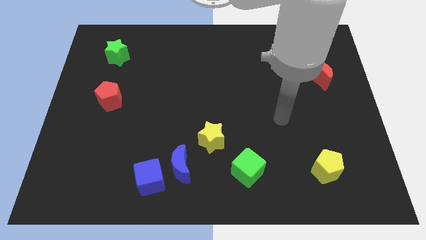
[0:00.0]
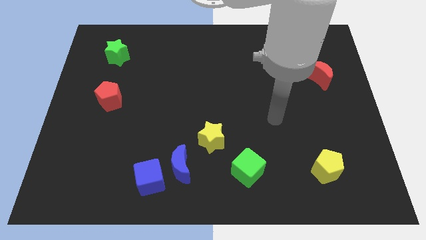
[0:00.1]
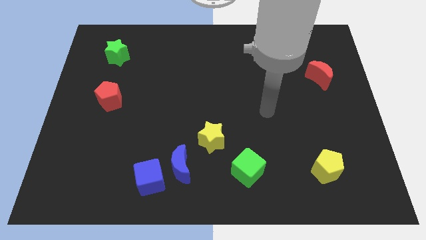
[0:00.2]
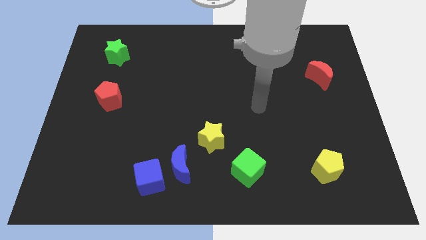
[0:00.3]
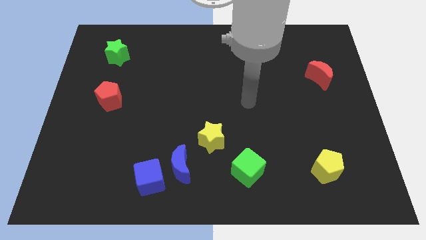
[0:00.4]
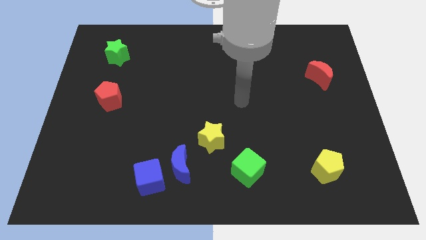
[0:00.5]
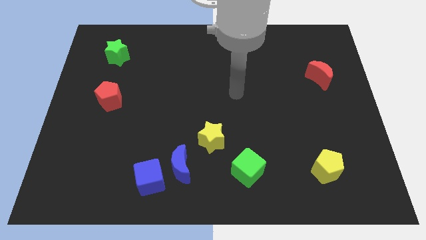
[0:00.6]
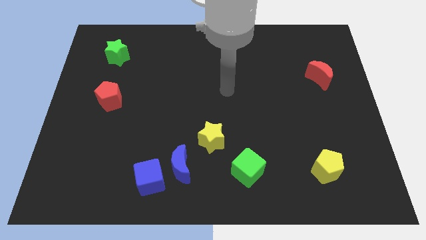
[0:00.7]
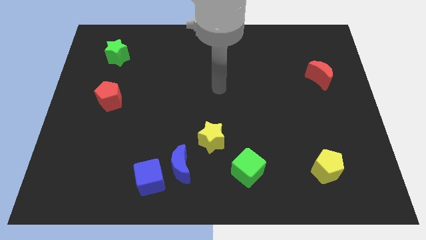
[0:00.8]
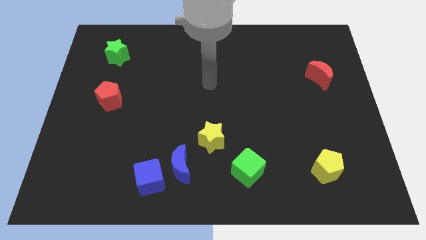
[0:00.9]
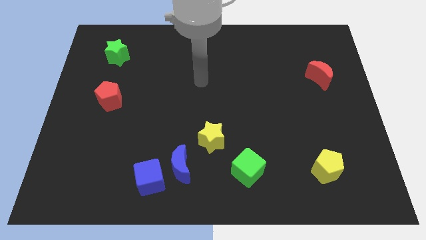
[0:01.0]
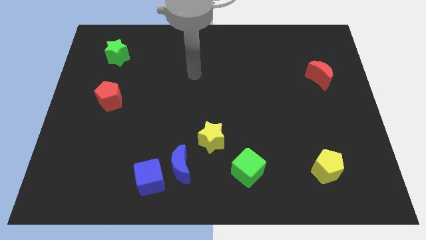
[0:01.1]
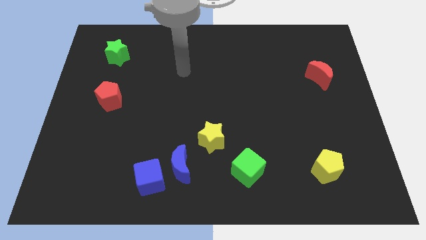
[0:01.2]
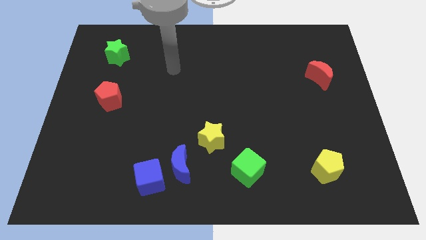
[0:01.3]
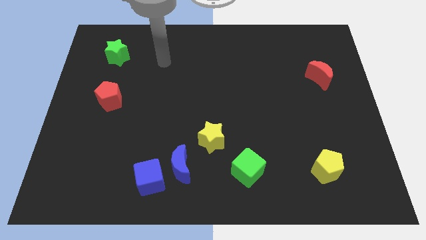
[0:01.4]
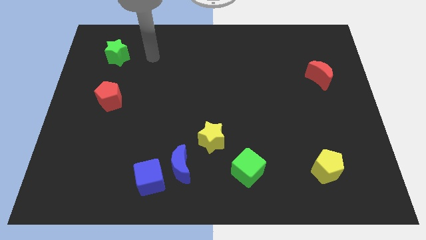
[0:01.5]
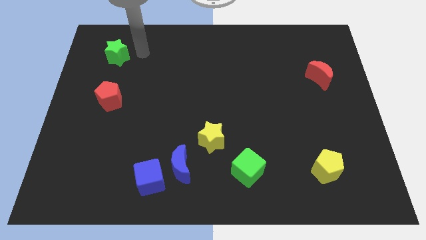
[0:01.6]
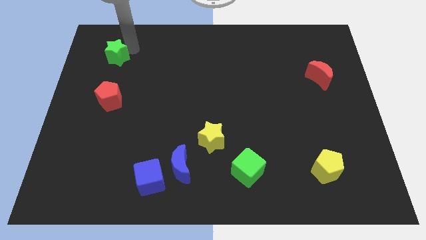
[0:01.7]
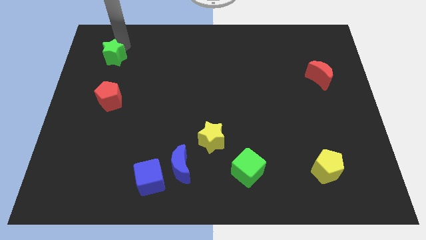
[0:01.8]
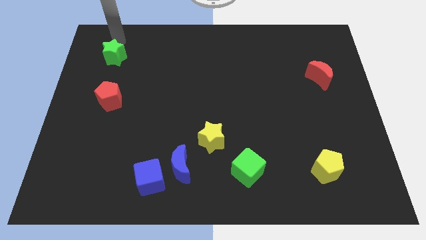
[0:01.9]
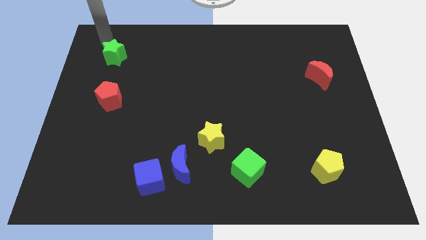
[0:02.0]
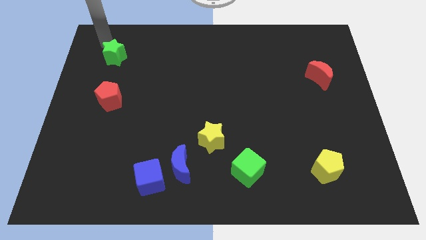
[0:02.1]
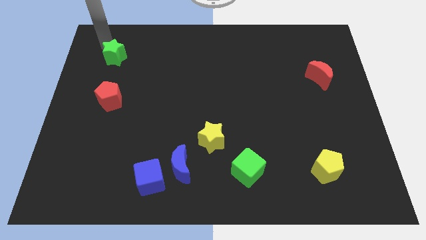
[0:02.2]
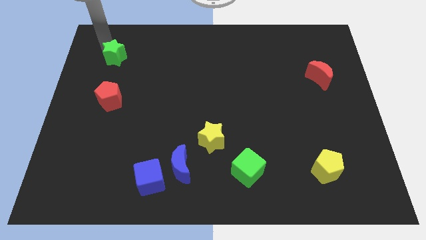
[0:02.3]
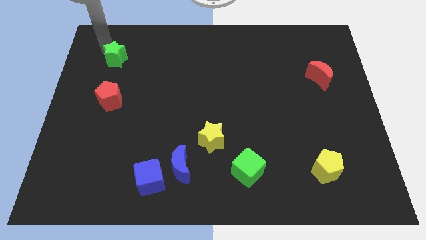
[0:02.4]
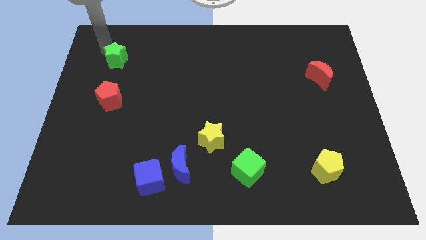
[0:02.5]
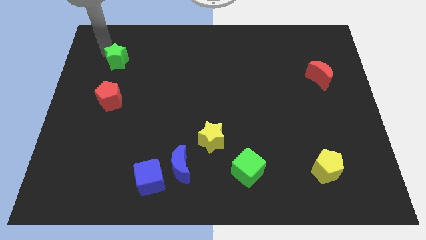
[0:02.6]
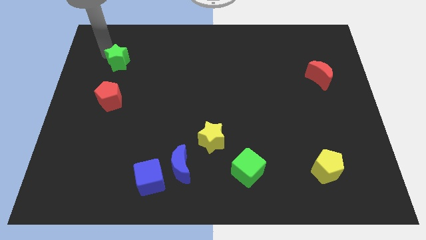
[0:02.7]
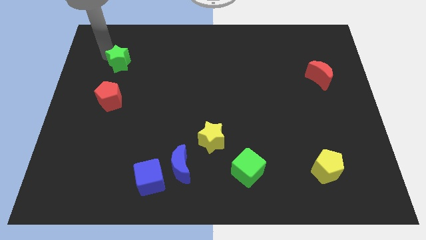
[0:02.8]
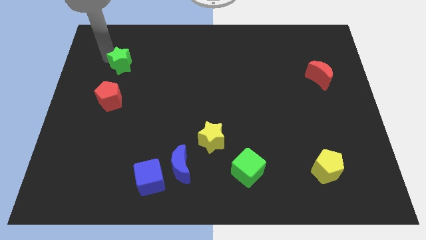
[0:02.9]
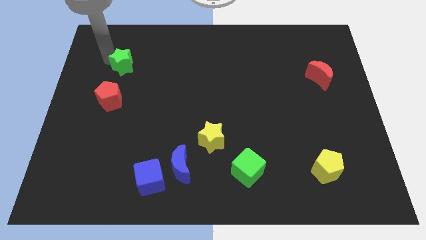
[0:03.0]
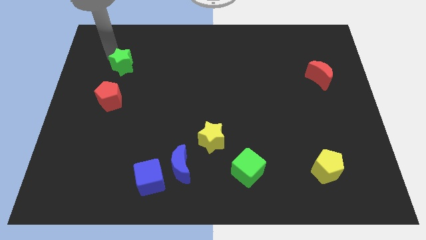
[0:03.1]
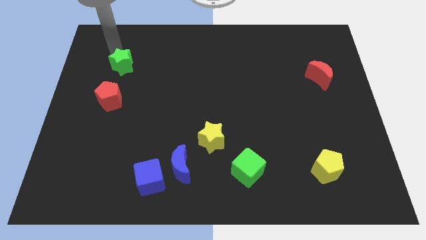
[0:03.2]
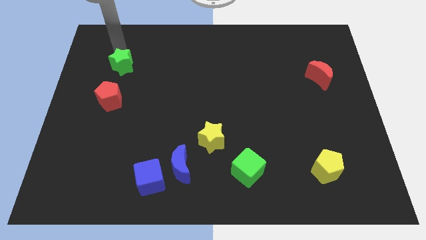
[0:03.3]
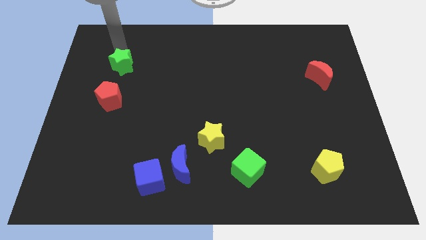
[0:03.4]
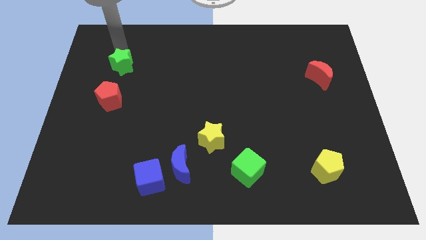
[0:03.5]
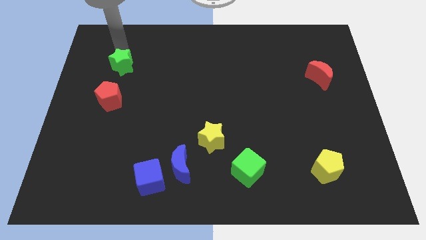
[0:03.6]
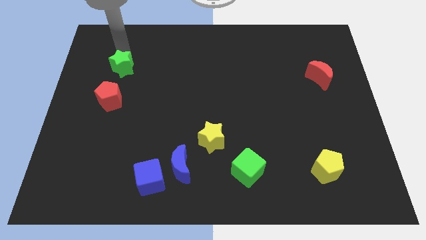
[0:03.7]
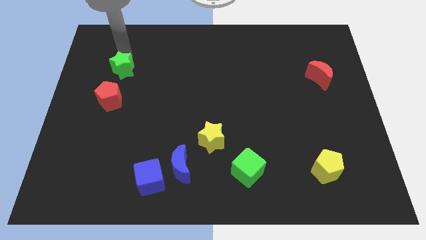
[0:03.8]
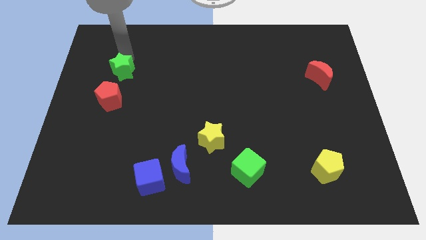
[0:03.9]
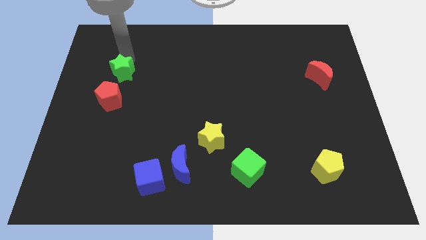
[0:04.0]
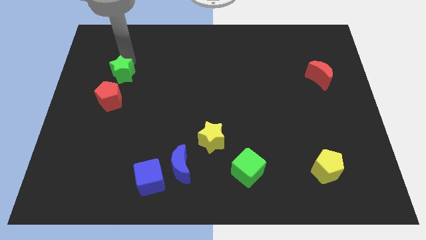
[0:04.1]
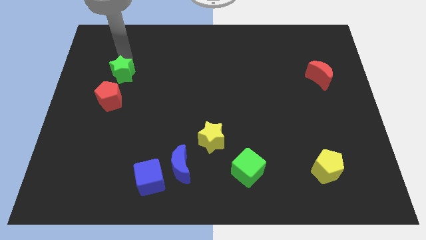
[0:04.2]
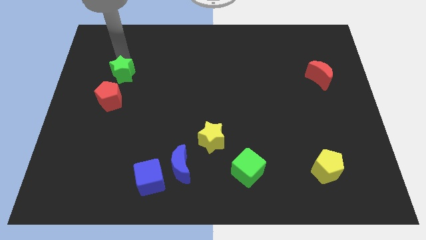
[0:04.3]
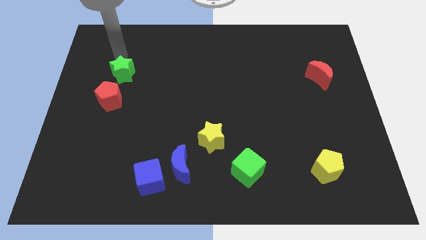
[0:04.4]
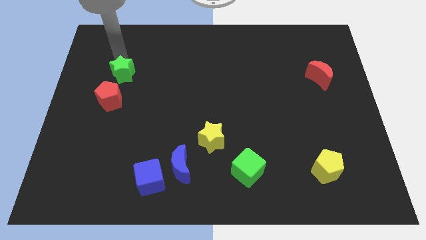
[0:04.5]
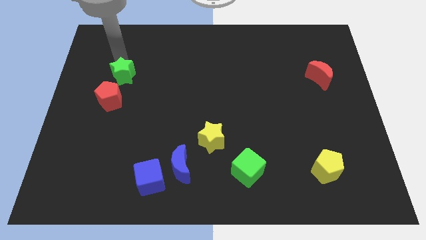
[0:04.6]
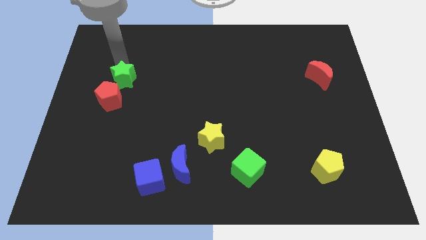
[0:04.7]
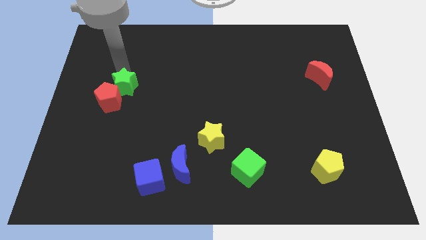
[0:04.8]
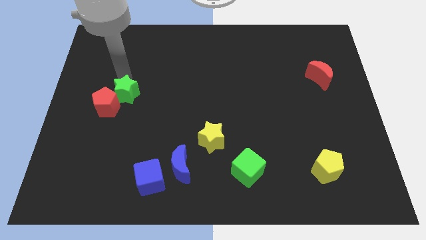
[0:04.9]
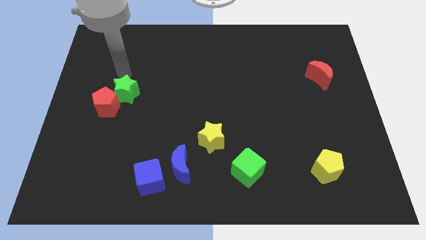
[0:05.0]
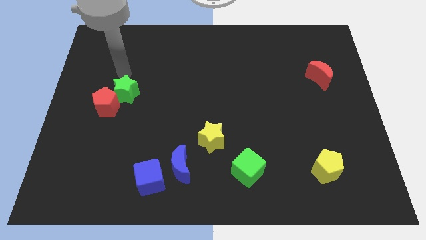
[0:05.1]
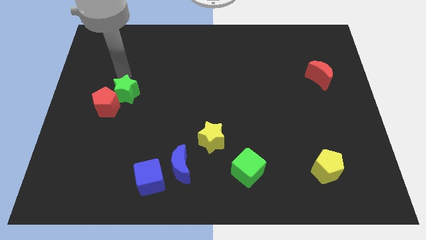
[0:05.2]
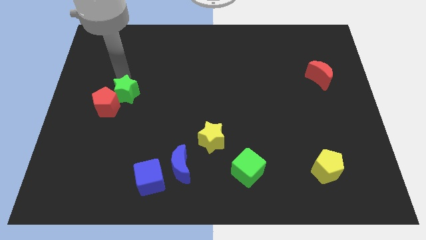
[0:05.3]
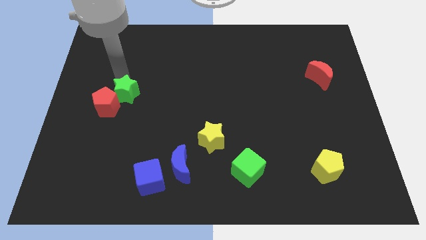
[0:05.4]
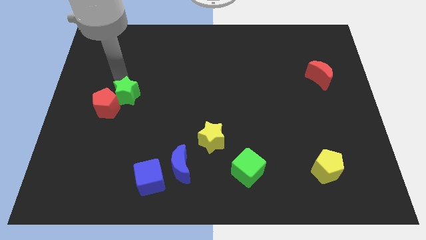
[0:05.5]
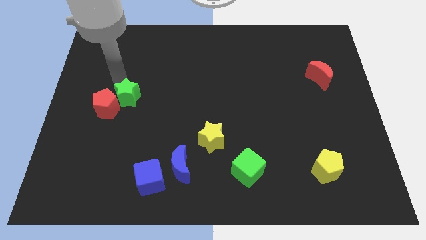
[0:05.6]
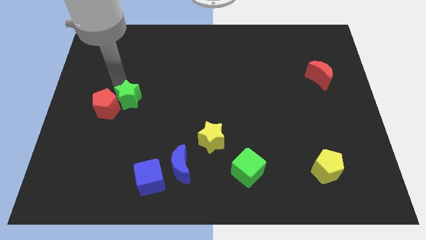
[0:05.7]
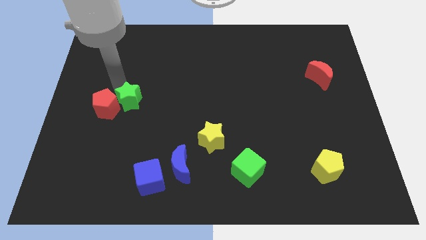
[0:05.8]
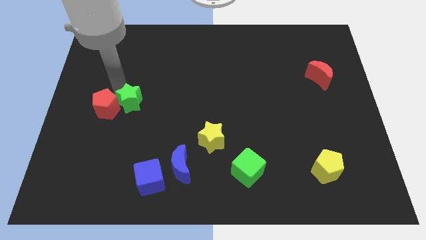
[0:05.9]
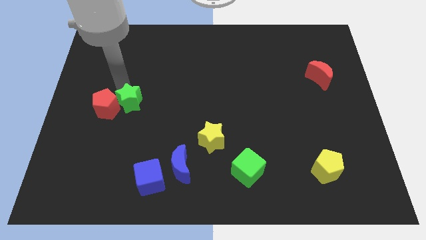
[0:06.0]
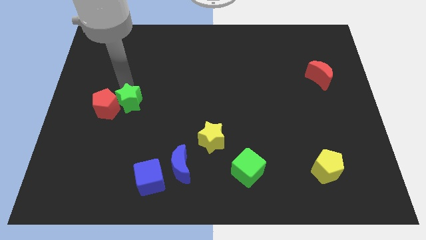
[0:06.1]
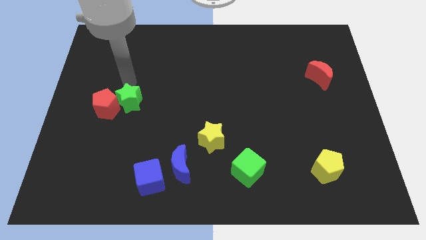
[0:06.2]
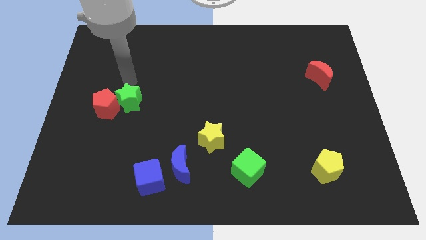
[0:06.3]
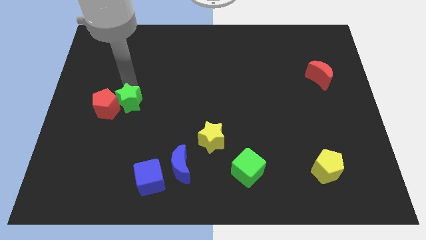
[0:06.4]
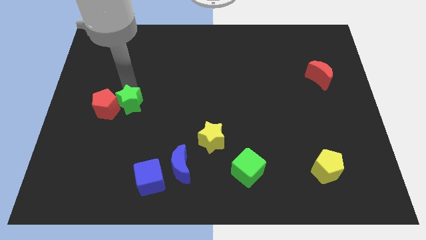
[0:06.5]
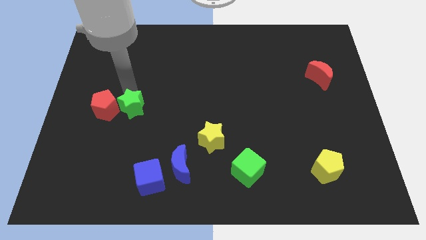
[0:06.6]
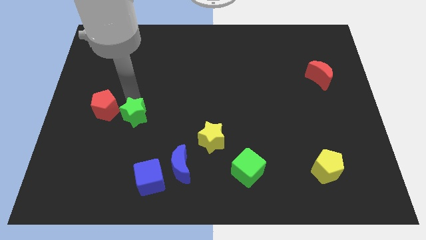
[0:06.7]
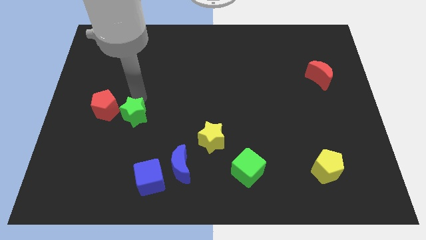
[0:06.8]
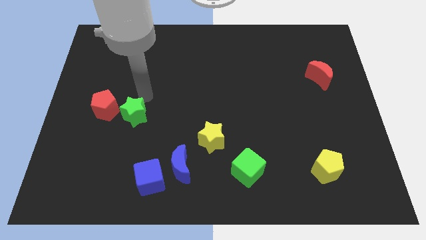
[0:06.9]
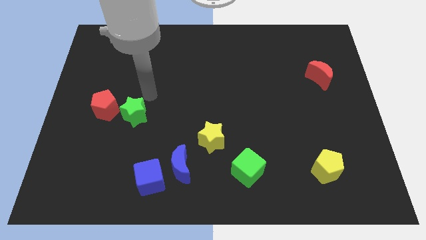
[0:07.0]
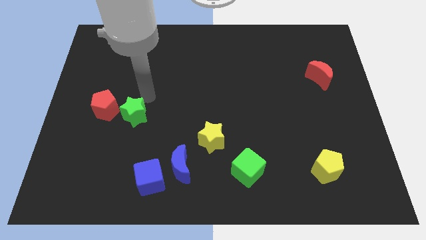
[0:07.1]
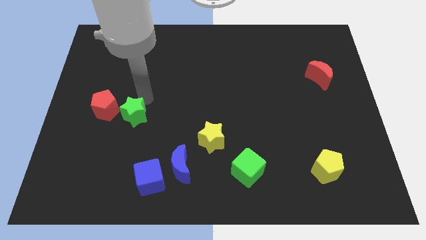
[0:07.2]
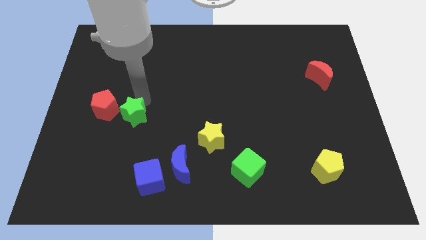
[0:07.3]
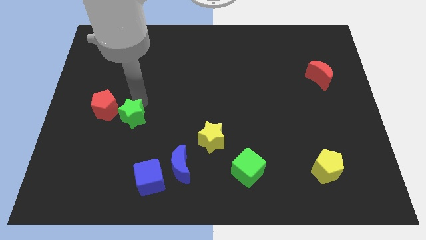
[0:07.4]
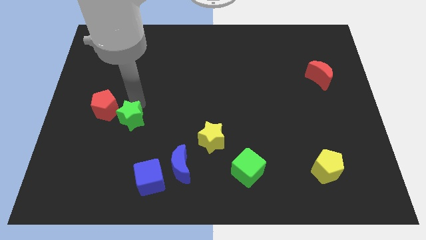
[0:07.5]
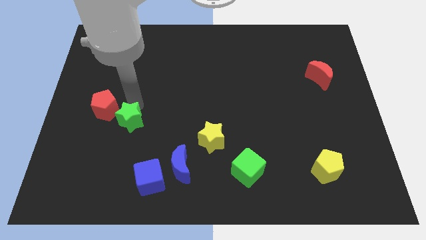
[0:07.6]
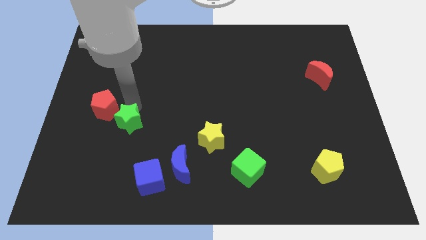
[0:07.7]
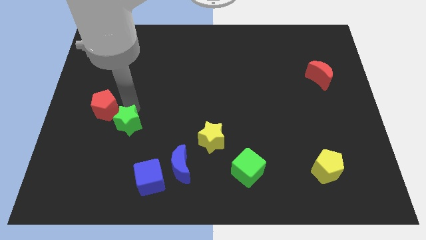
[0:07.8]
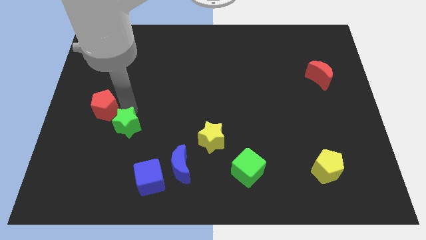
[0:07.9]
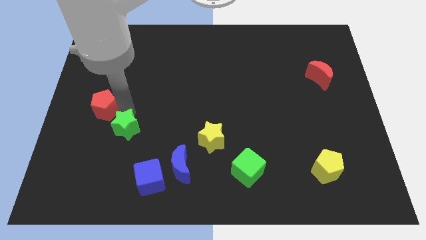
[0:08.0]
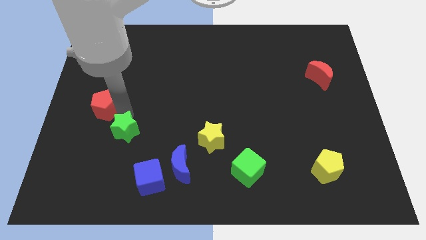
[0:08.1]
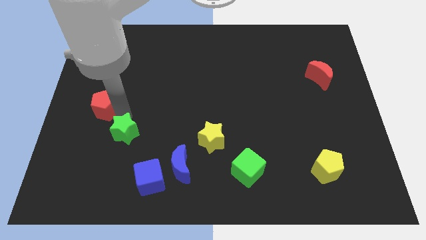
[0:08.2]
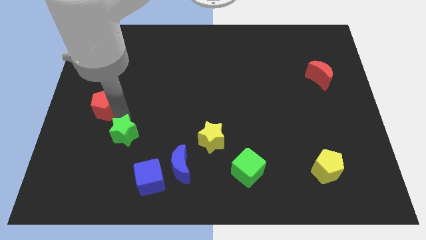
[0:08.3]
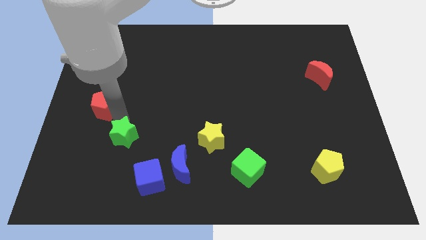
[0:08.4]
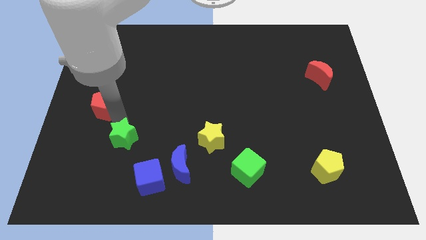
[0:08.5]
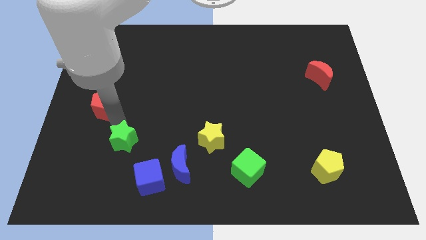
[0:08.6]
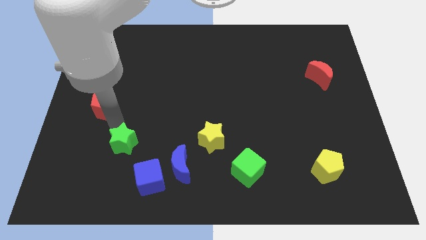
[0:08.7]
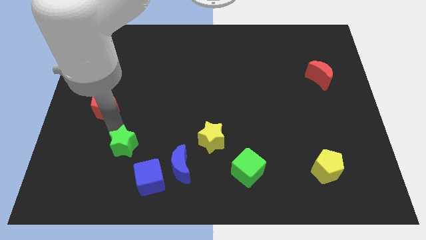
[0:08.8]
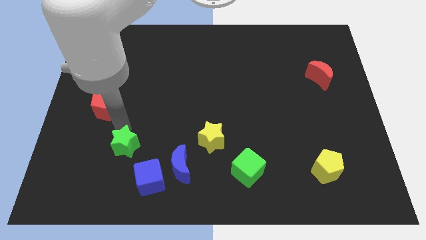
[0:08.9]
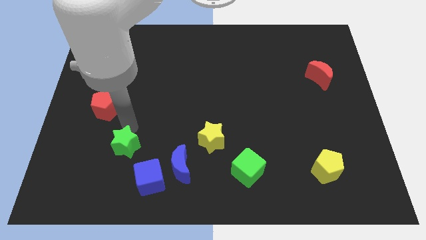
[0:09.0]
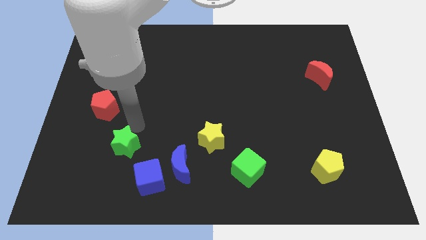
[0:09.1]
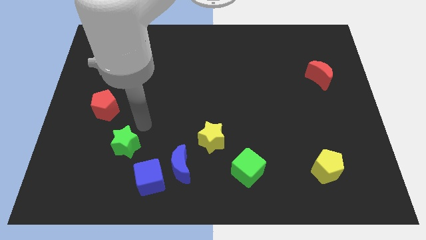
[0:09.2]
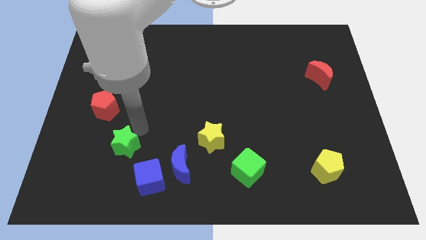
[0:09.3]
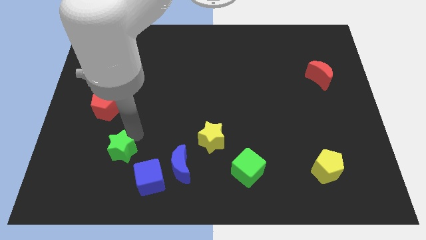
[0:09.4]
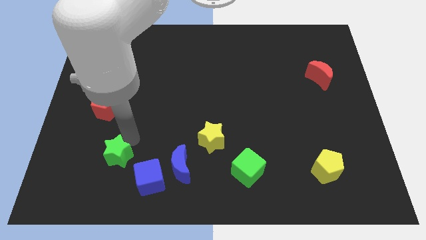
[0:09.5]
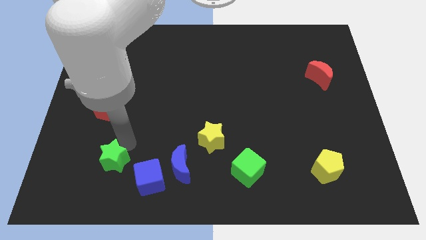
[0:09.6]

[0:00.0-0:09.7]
move the green star to the left of the blue cube
